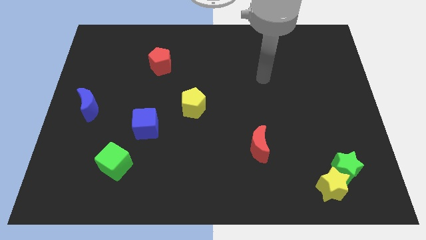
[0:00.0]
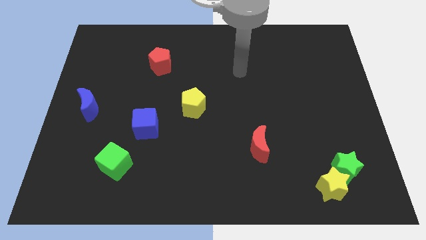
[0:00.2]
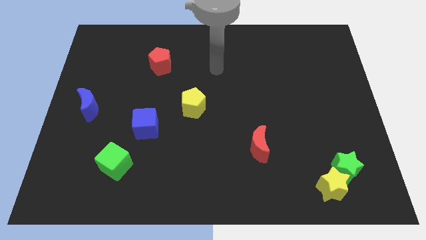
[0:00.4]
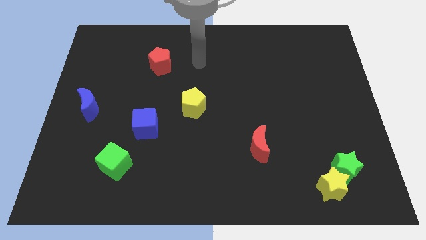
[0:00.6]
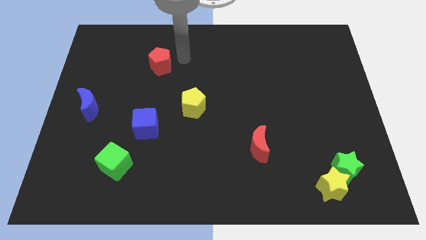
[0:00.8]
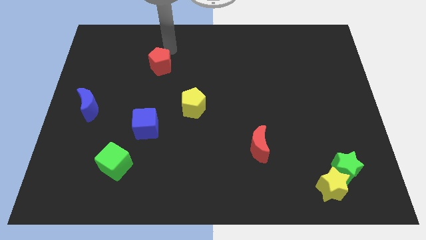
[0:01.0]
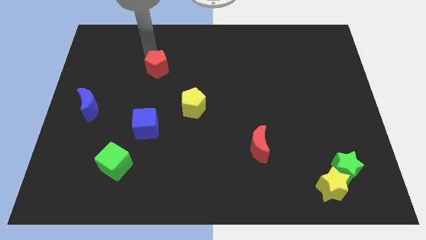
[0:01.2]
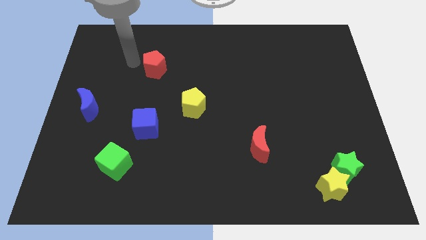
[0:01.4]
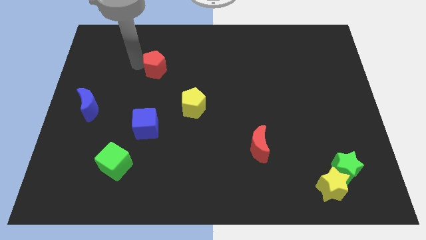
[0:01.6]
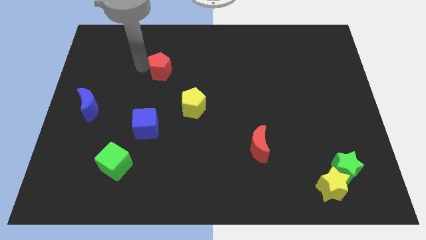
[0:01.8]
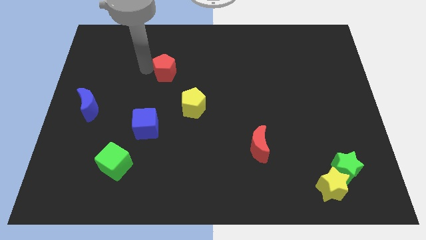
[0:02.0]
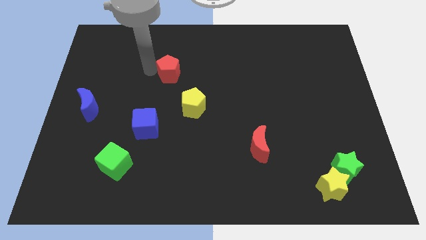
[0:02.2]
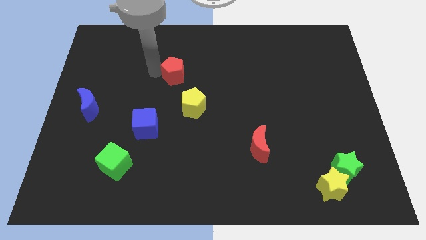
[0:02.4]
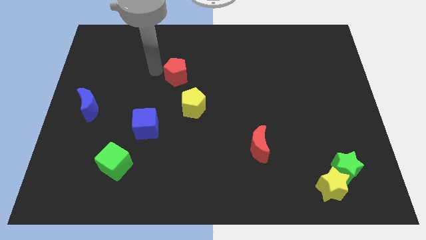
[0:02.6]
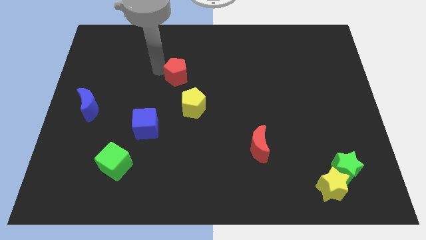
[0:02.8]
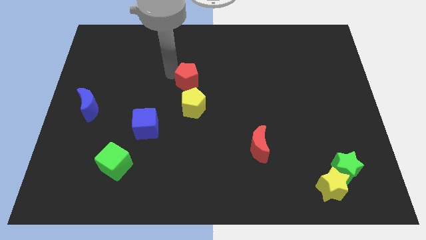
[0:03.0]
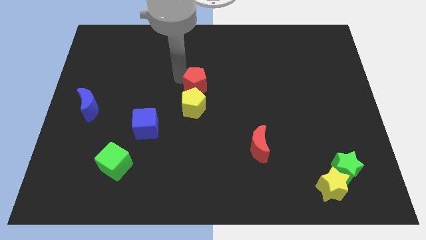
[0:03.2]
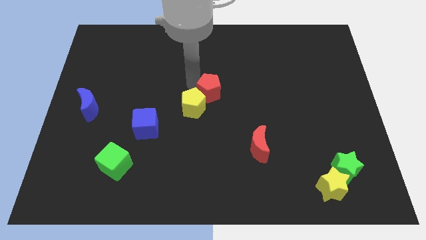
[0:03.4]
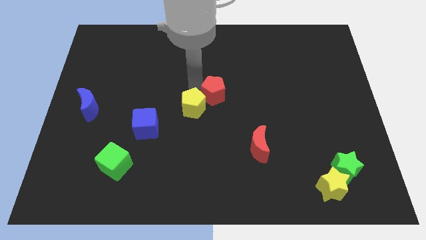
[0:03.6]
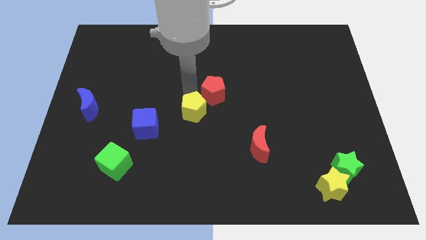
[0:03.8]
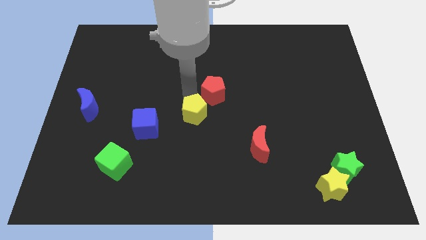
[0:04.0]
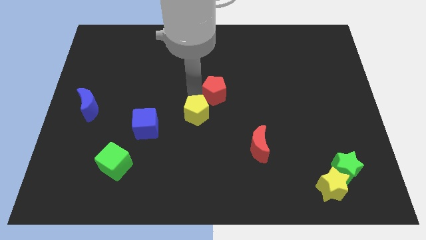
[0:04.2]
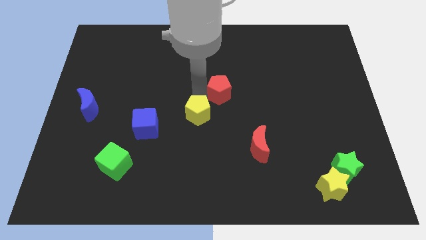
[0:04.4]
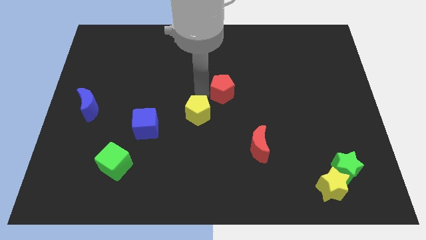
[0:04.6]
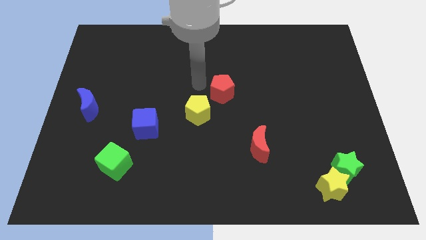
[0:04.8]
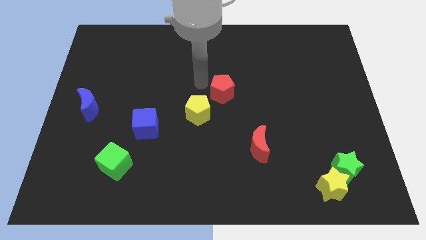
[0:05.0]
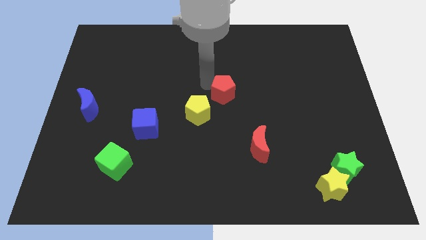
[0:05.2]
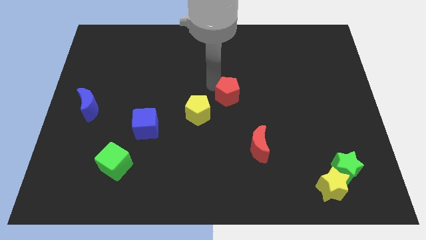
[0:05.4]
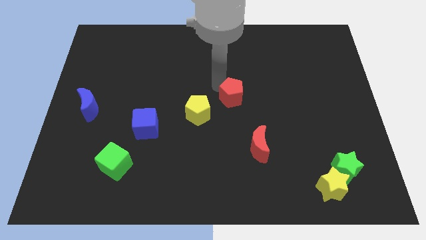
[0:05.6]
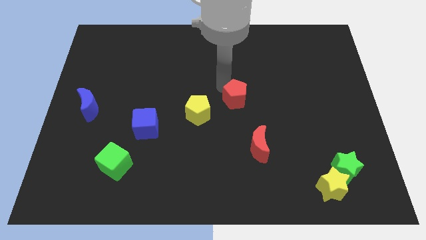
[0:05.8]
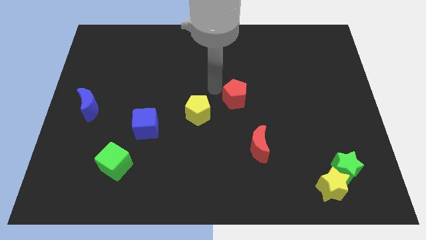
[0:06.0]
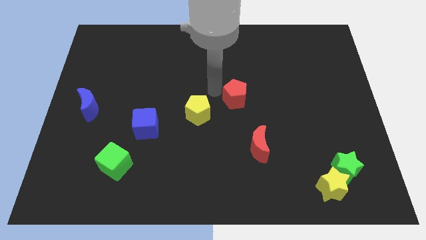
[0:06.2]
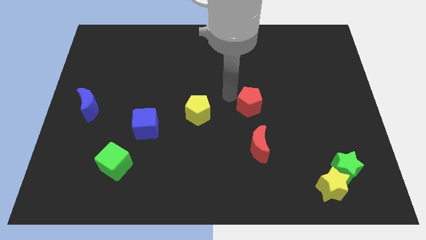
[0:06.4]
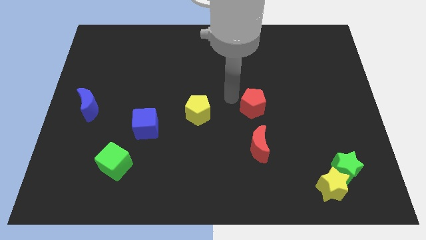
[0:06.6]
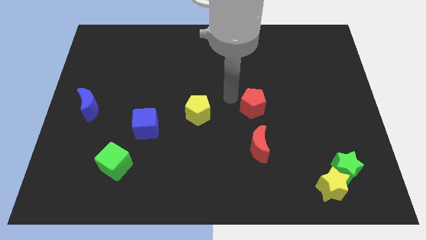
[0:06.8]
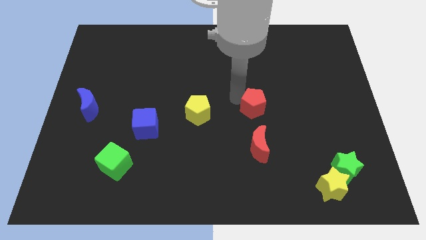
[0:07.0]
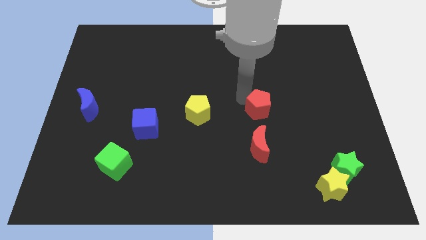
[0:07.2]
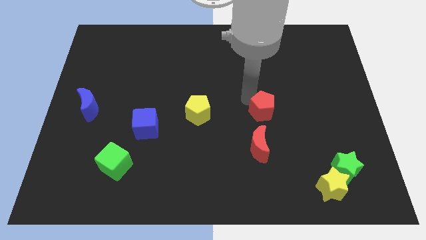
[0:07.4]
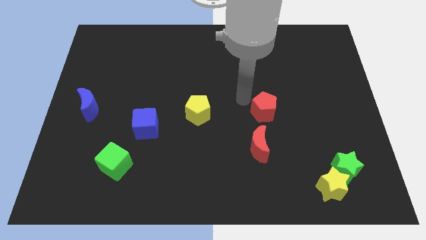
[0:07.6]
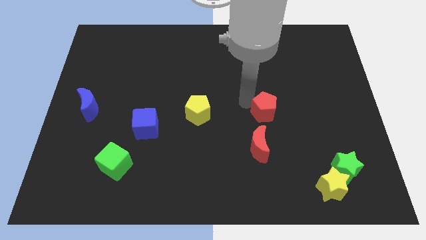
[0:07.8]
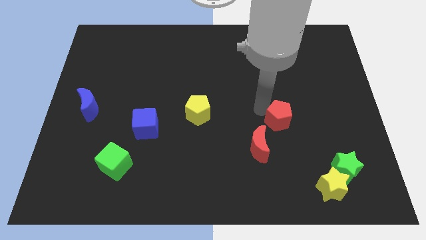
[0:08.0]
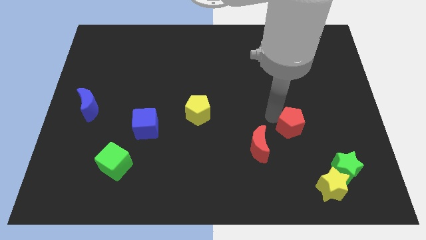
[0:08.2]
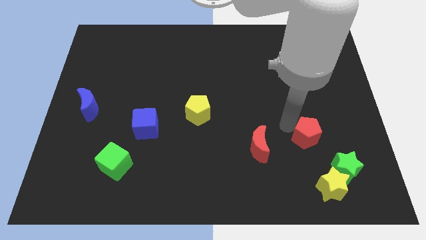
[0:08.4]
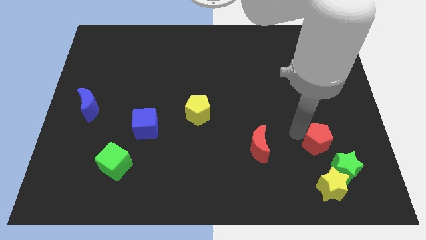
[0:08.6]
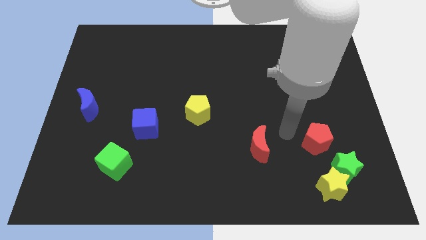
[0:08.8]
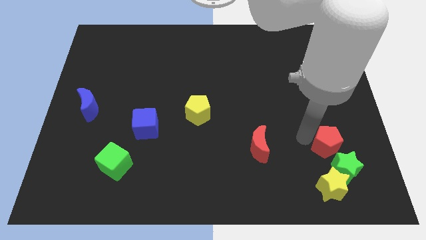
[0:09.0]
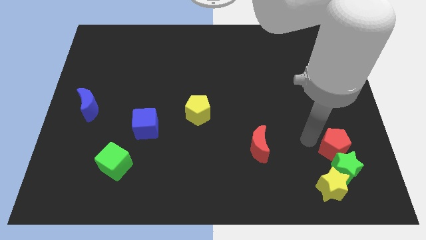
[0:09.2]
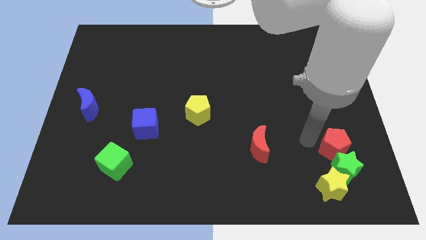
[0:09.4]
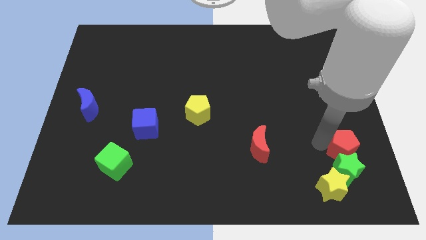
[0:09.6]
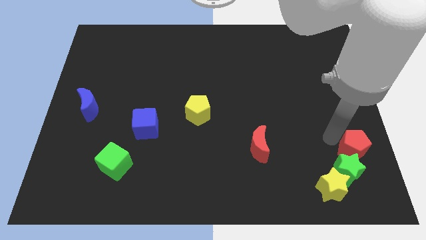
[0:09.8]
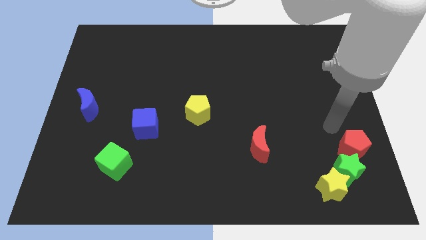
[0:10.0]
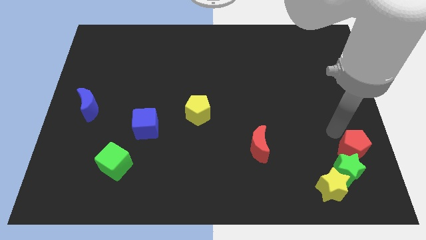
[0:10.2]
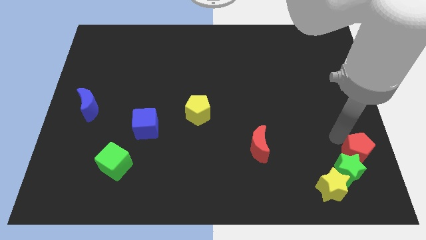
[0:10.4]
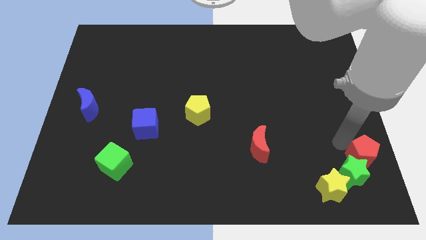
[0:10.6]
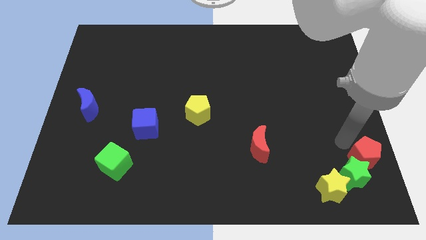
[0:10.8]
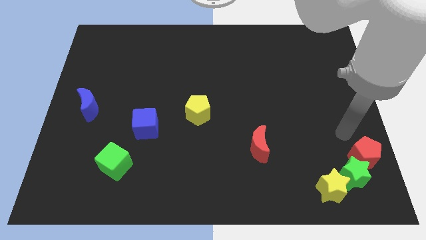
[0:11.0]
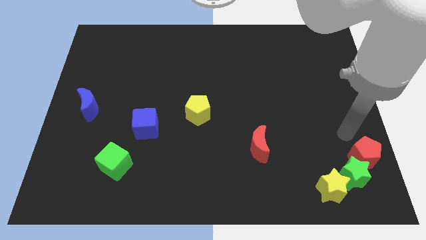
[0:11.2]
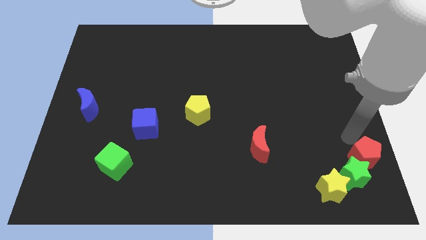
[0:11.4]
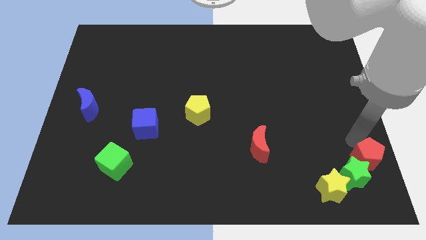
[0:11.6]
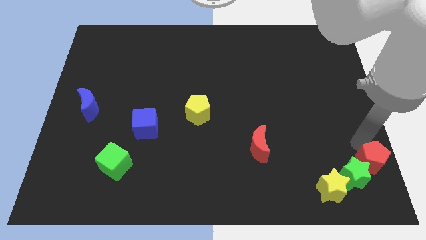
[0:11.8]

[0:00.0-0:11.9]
slide the red pentagon to the bottom right corner

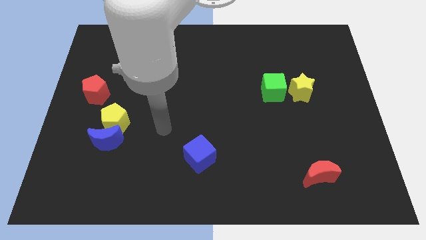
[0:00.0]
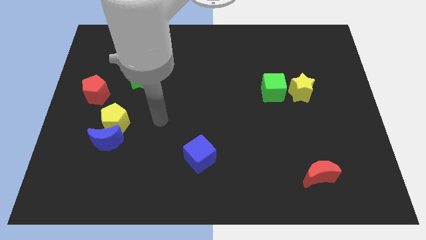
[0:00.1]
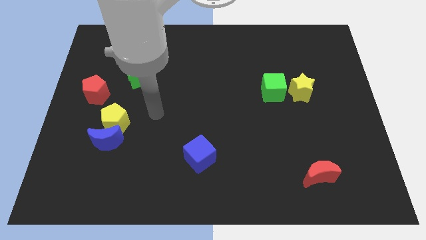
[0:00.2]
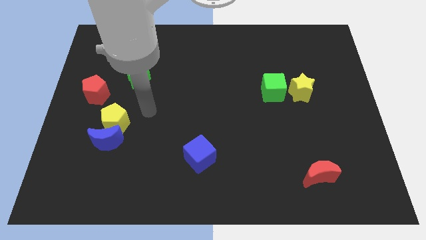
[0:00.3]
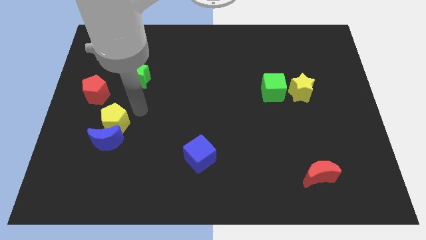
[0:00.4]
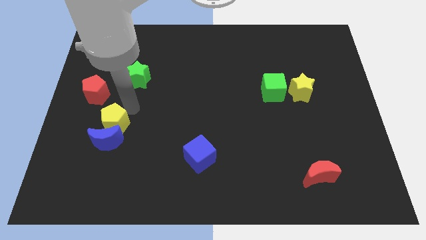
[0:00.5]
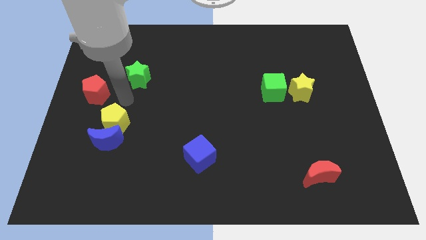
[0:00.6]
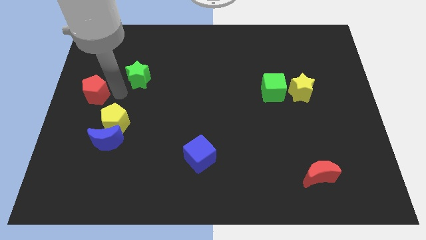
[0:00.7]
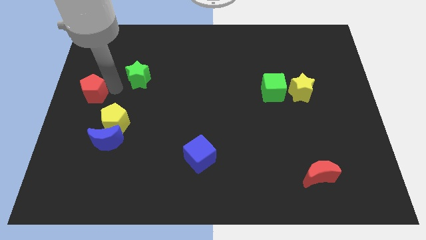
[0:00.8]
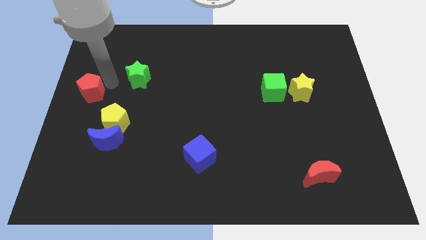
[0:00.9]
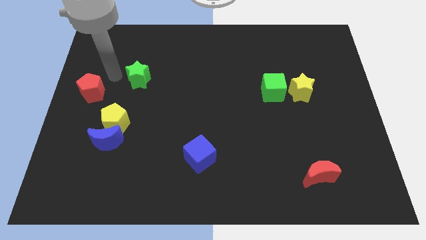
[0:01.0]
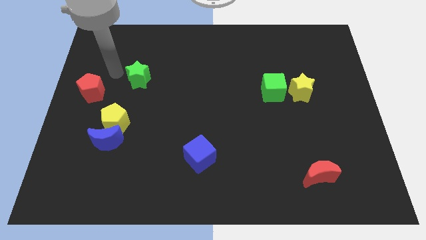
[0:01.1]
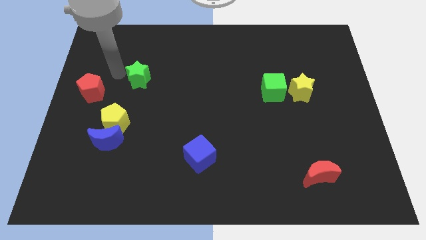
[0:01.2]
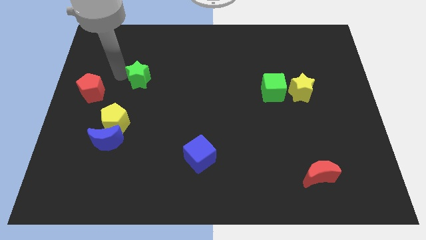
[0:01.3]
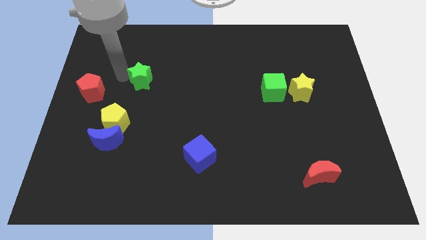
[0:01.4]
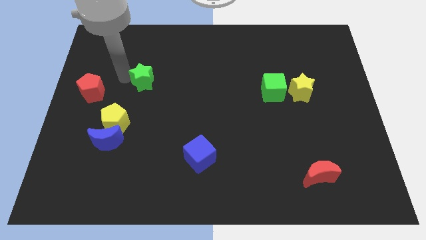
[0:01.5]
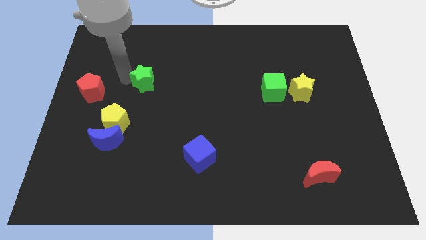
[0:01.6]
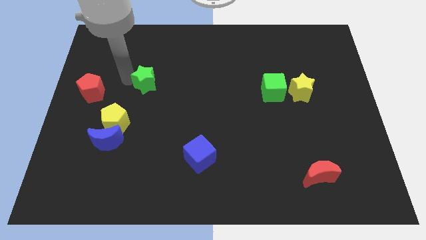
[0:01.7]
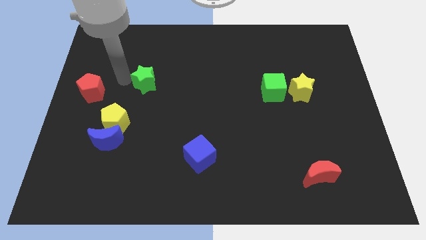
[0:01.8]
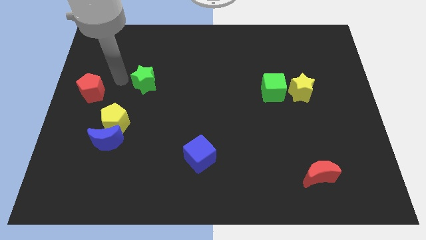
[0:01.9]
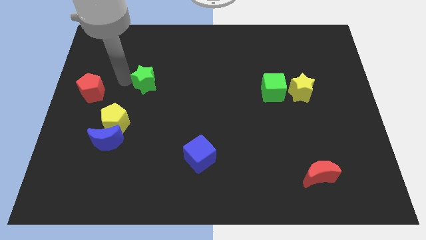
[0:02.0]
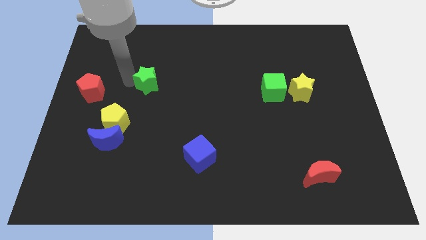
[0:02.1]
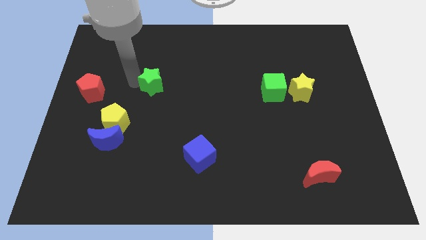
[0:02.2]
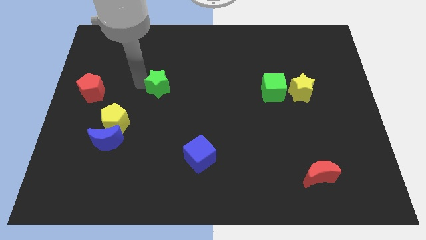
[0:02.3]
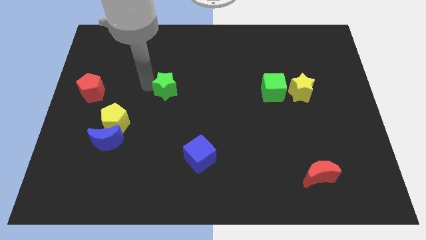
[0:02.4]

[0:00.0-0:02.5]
move the green star to the middle
